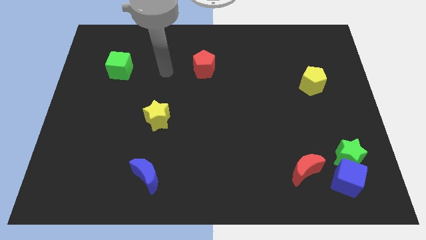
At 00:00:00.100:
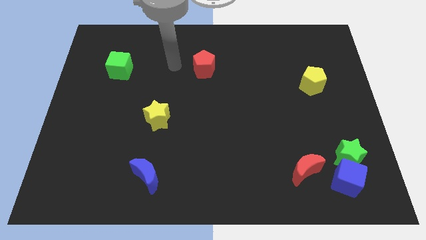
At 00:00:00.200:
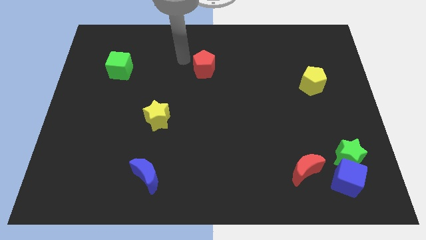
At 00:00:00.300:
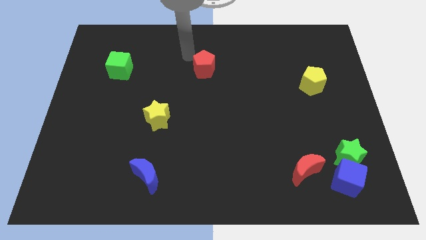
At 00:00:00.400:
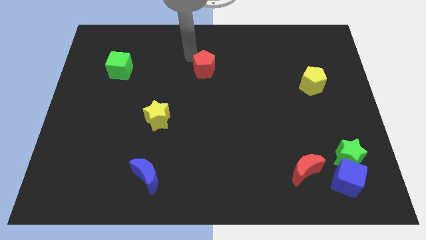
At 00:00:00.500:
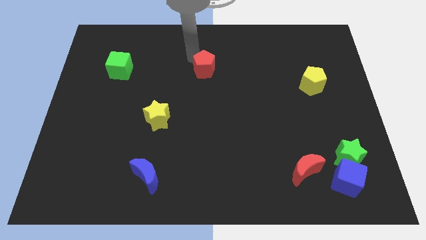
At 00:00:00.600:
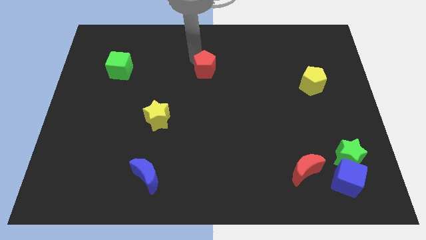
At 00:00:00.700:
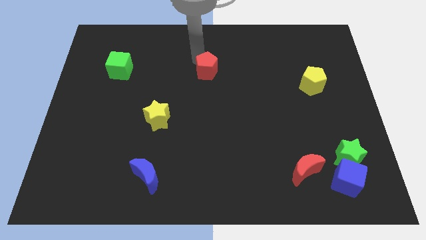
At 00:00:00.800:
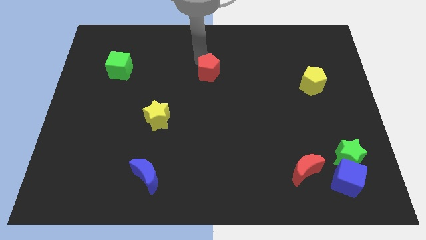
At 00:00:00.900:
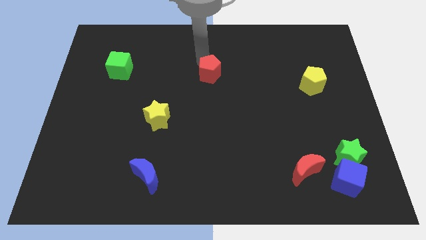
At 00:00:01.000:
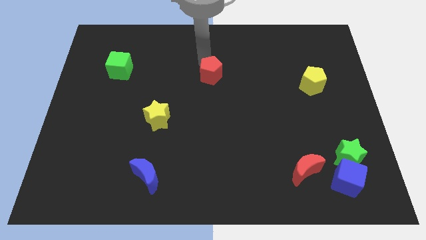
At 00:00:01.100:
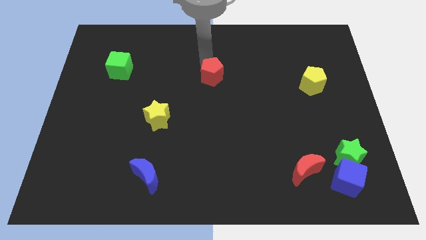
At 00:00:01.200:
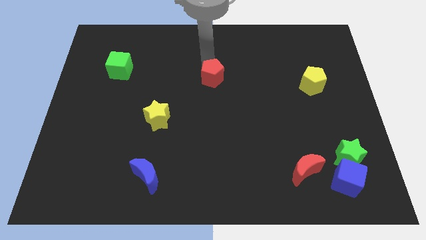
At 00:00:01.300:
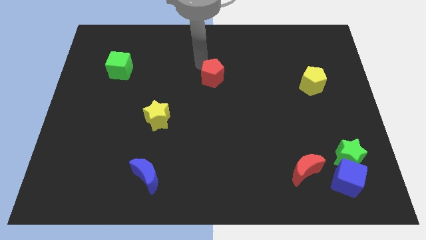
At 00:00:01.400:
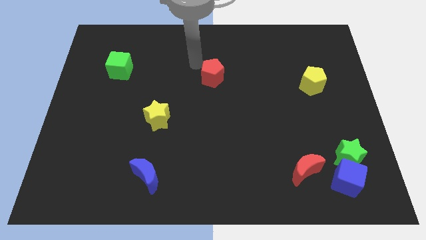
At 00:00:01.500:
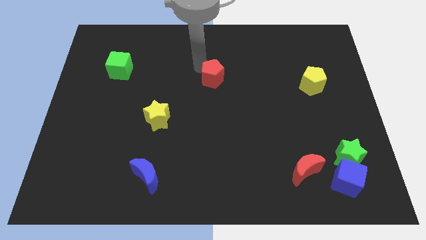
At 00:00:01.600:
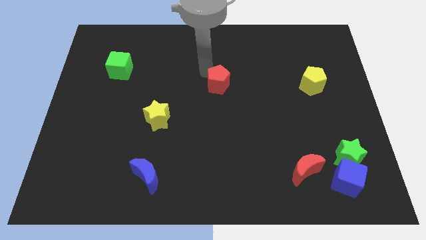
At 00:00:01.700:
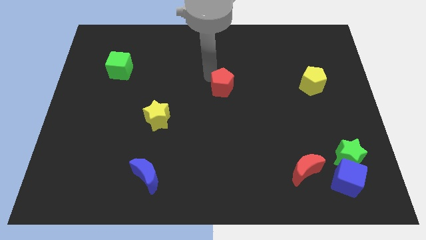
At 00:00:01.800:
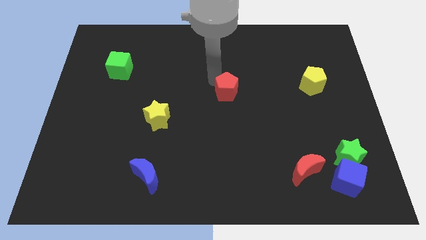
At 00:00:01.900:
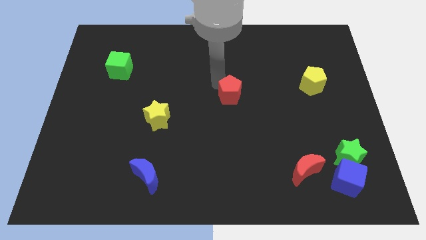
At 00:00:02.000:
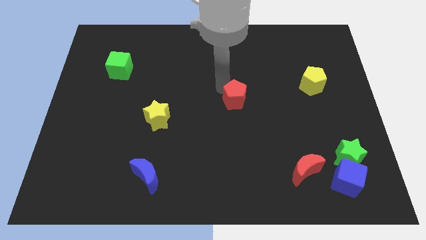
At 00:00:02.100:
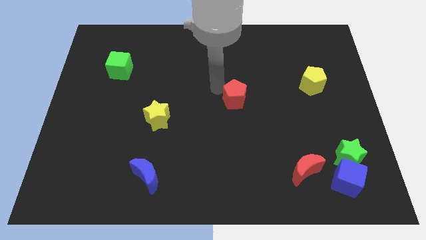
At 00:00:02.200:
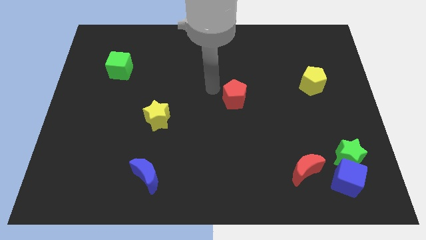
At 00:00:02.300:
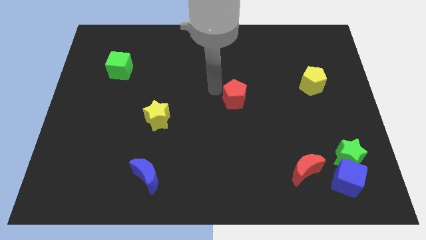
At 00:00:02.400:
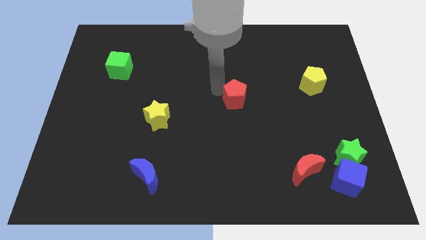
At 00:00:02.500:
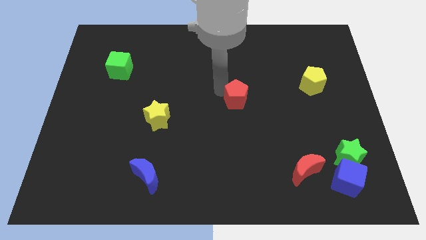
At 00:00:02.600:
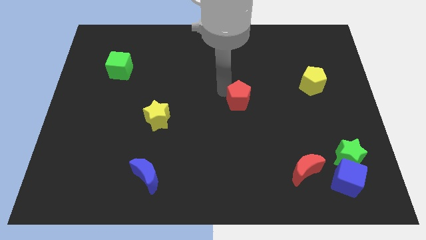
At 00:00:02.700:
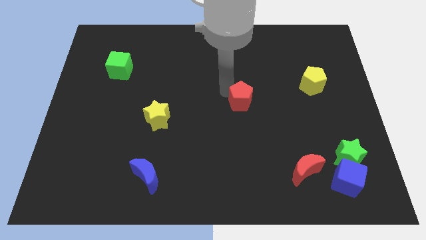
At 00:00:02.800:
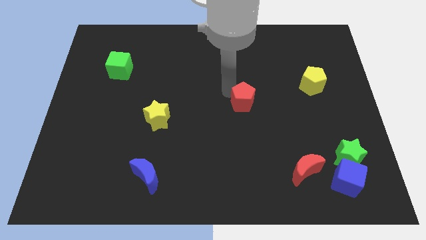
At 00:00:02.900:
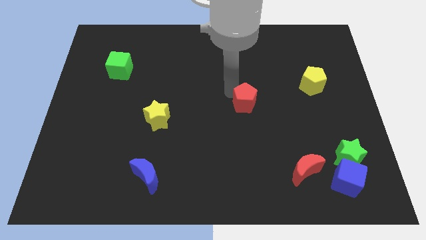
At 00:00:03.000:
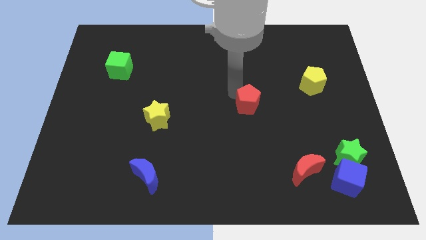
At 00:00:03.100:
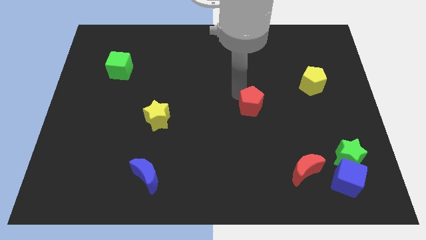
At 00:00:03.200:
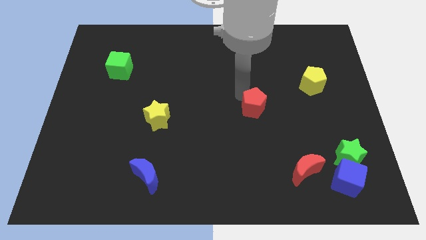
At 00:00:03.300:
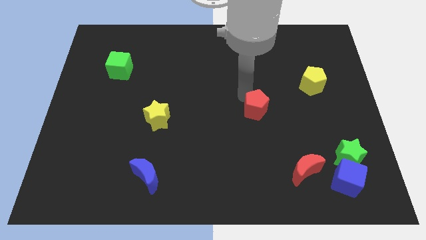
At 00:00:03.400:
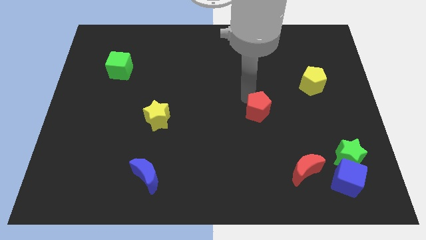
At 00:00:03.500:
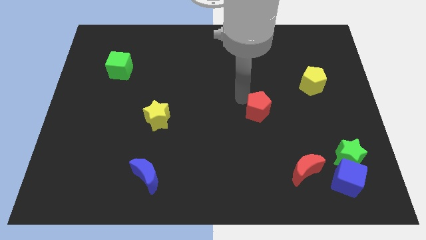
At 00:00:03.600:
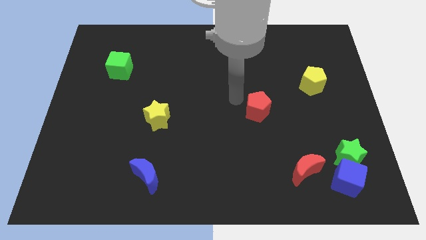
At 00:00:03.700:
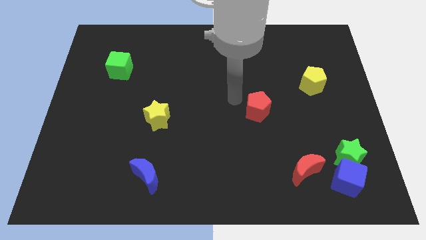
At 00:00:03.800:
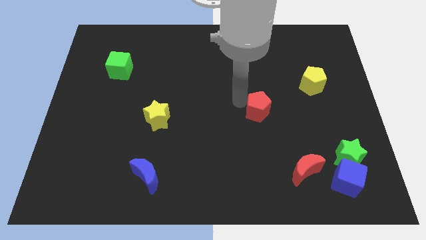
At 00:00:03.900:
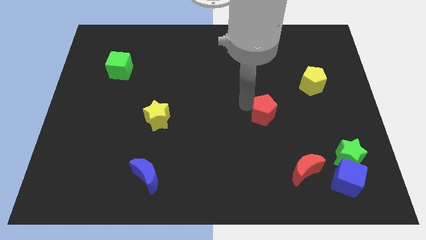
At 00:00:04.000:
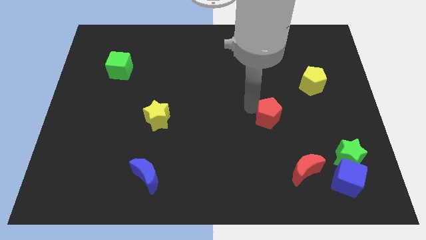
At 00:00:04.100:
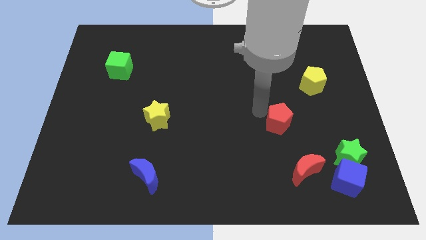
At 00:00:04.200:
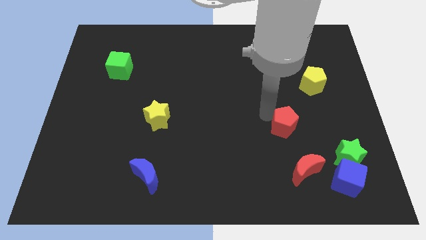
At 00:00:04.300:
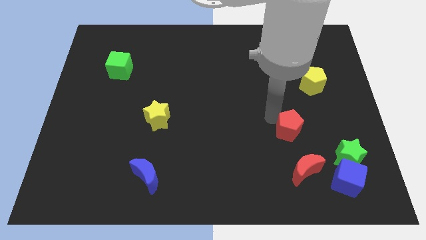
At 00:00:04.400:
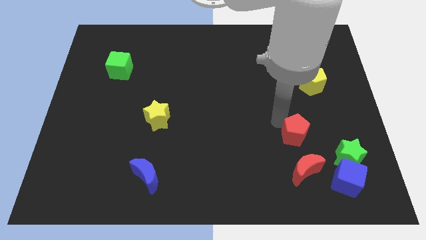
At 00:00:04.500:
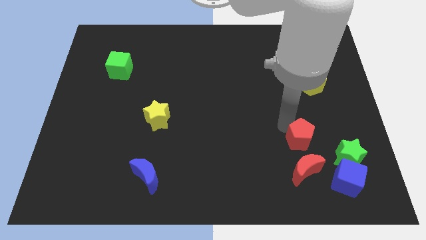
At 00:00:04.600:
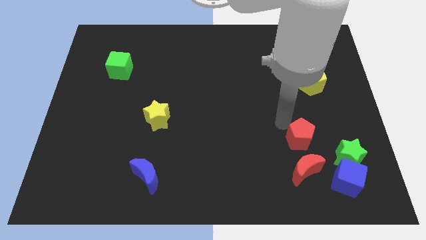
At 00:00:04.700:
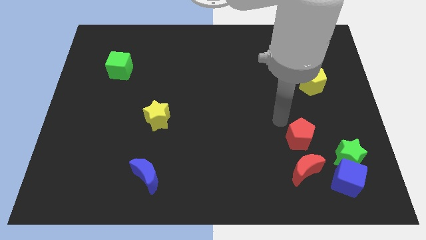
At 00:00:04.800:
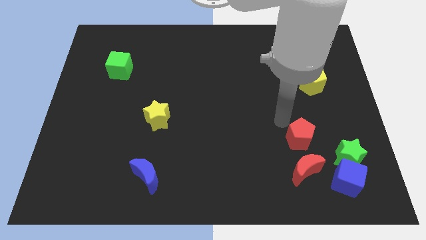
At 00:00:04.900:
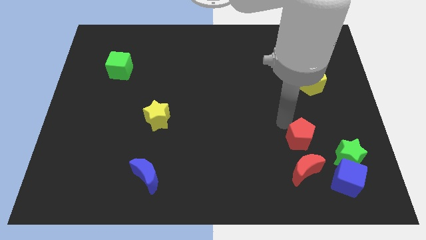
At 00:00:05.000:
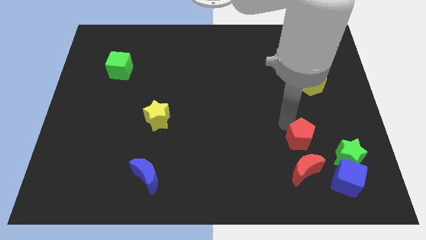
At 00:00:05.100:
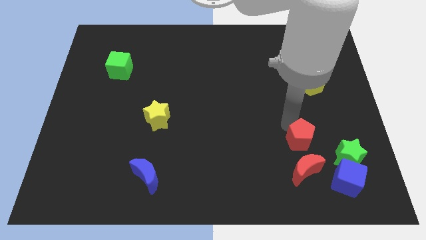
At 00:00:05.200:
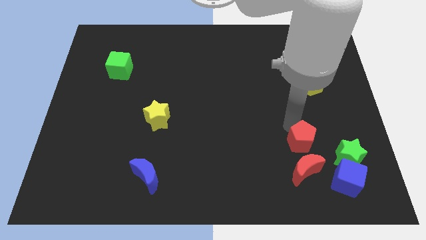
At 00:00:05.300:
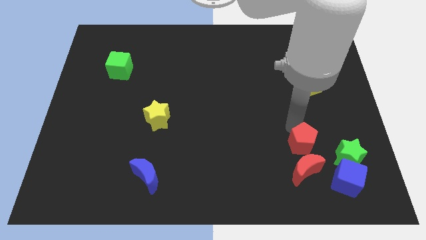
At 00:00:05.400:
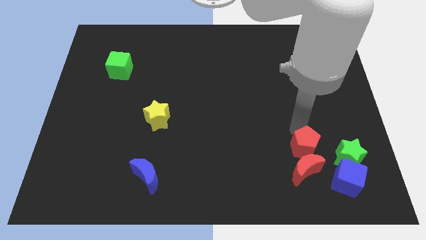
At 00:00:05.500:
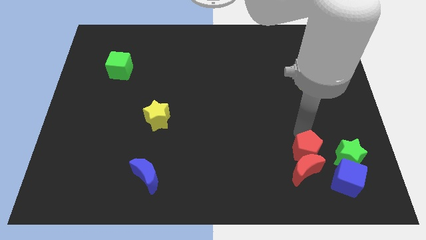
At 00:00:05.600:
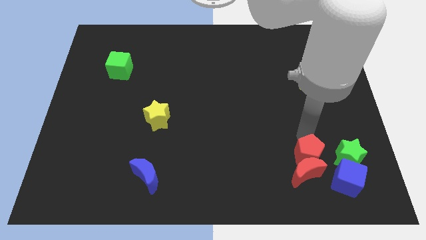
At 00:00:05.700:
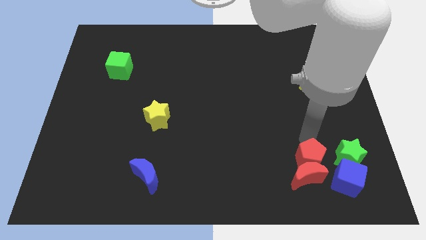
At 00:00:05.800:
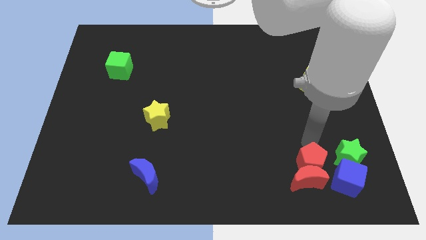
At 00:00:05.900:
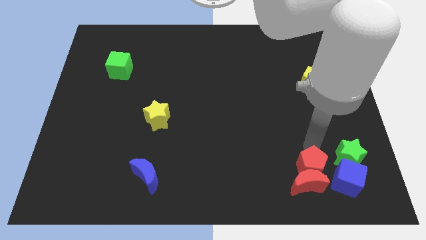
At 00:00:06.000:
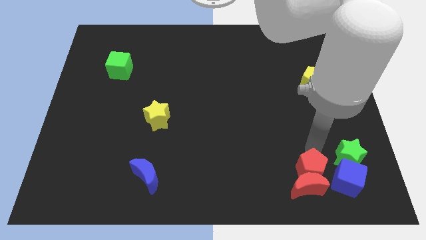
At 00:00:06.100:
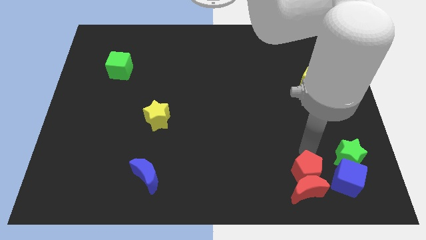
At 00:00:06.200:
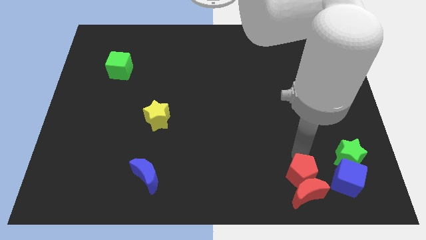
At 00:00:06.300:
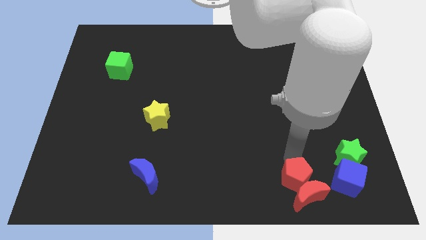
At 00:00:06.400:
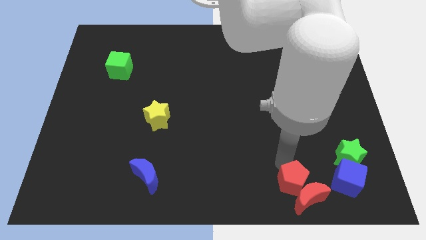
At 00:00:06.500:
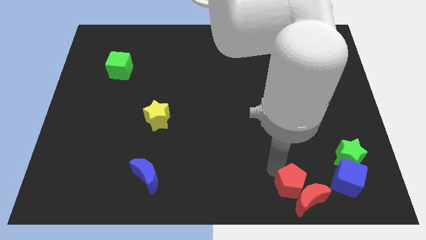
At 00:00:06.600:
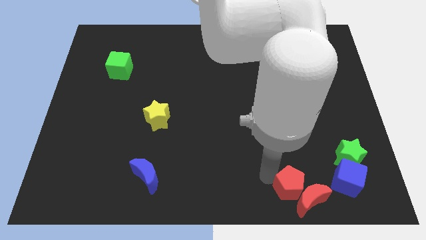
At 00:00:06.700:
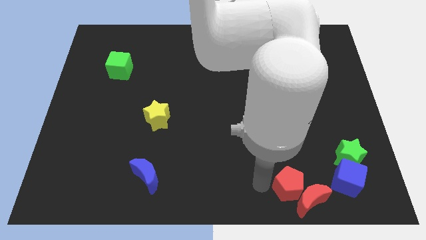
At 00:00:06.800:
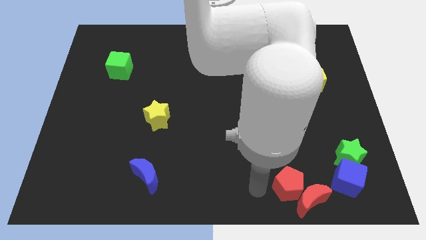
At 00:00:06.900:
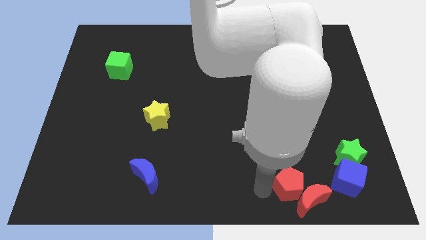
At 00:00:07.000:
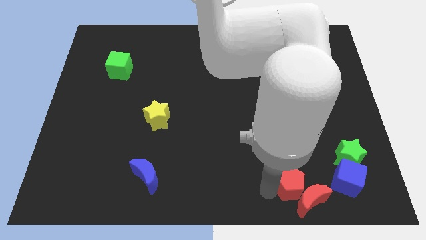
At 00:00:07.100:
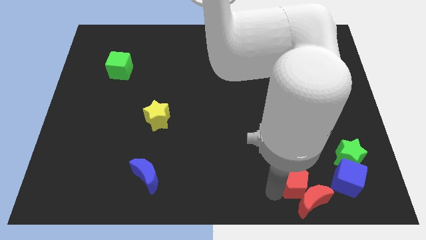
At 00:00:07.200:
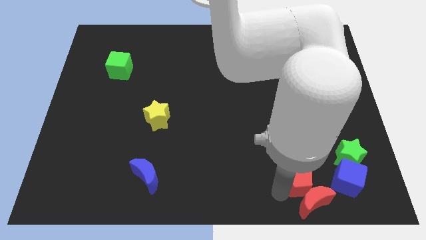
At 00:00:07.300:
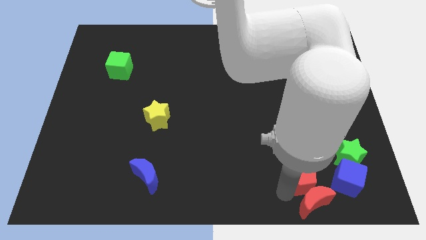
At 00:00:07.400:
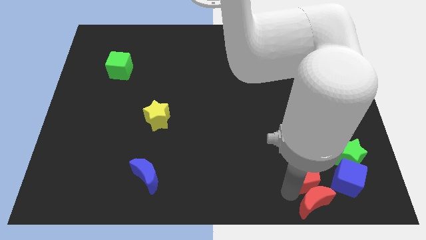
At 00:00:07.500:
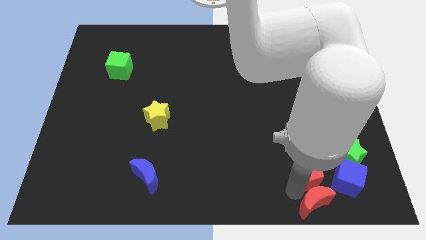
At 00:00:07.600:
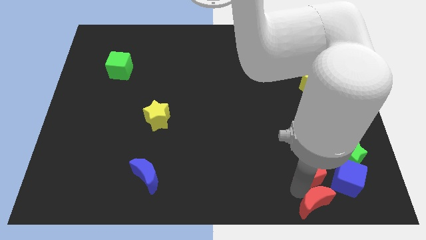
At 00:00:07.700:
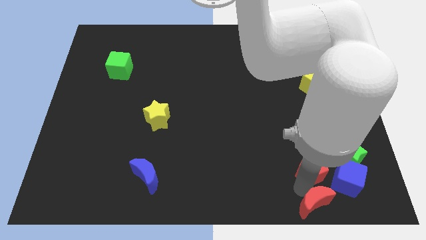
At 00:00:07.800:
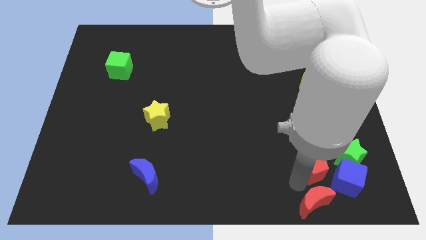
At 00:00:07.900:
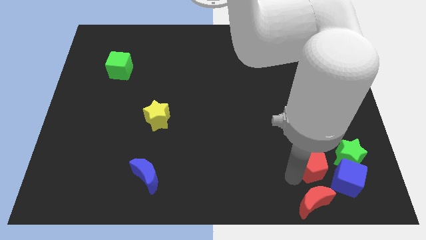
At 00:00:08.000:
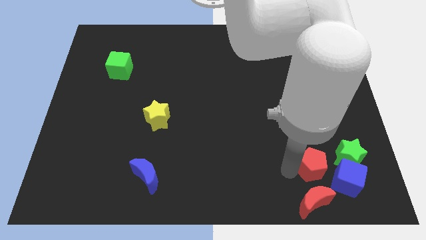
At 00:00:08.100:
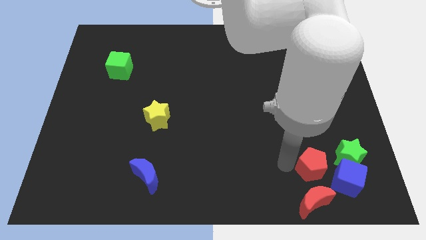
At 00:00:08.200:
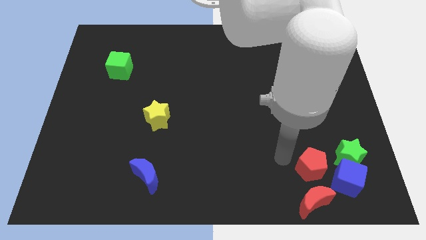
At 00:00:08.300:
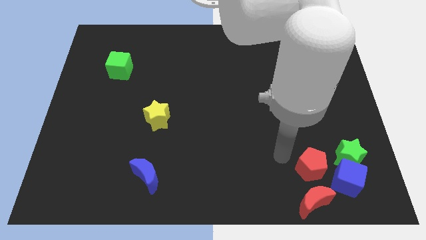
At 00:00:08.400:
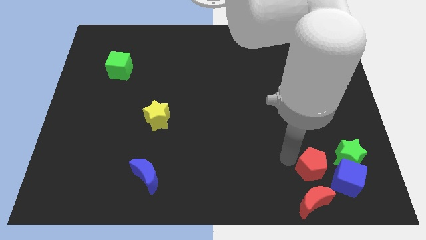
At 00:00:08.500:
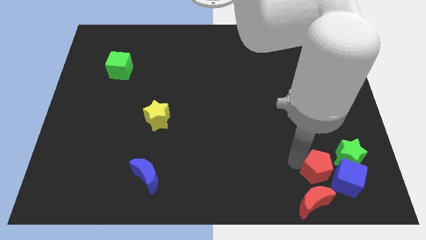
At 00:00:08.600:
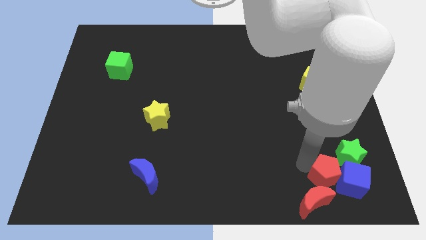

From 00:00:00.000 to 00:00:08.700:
move the red pentagon to the blue cube
